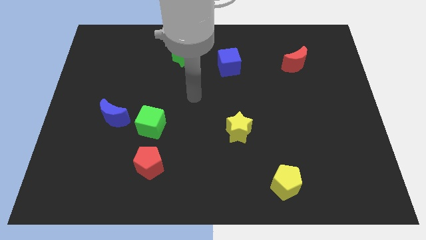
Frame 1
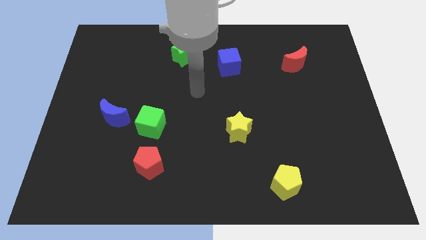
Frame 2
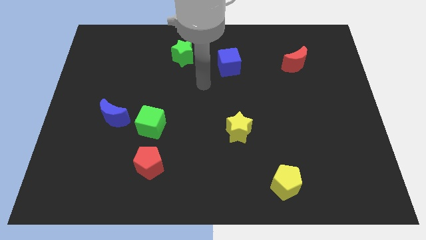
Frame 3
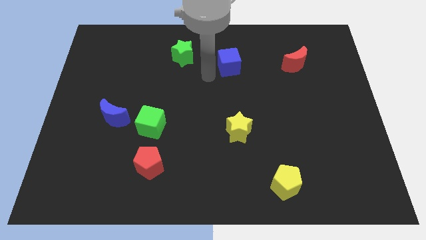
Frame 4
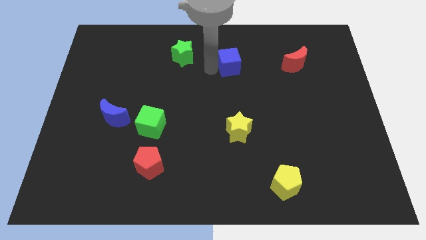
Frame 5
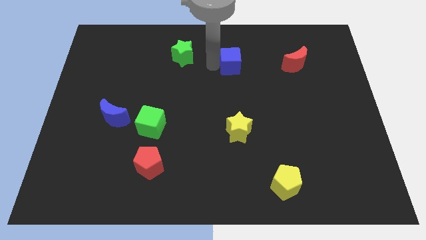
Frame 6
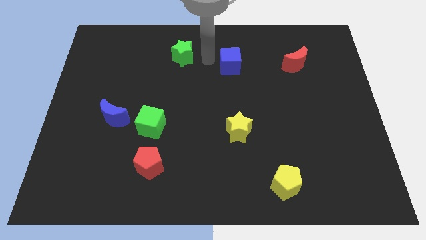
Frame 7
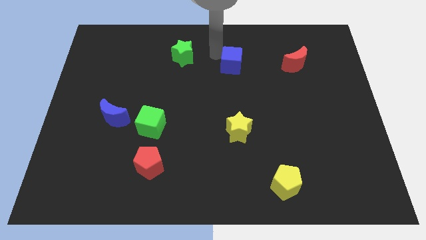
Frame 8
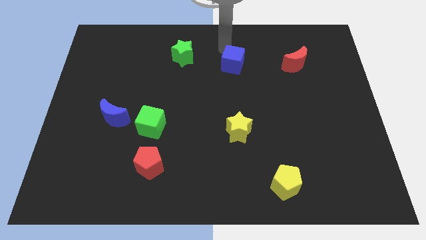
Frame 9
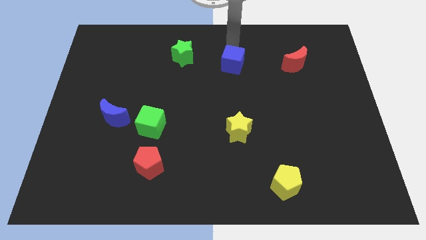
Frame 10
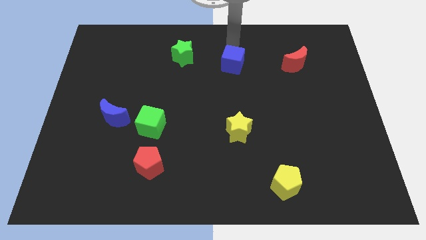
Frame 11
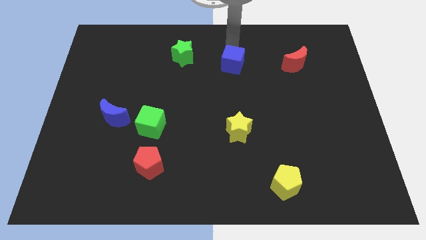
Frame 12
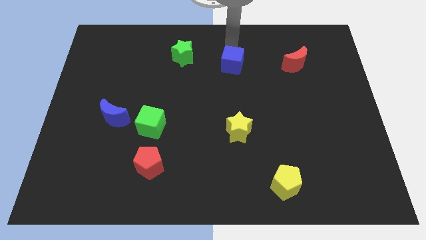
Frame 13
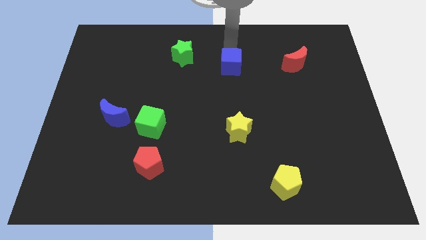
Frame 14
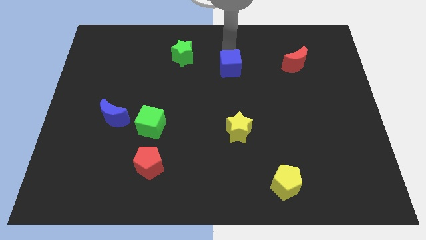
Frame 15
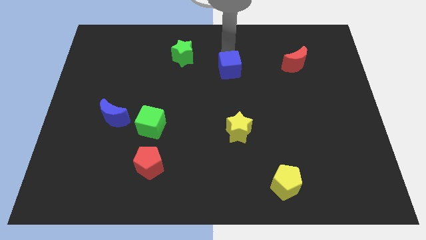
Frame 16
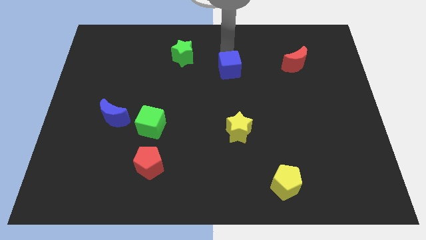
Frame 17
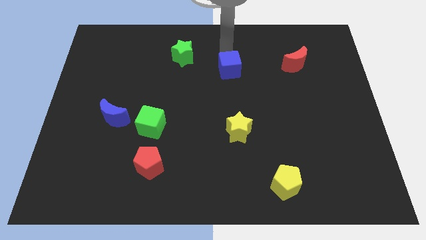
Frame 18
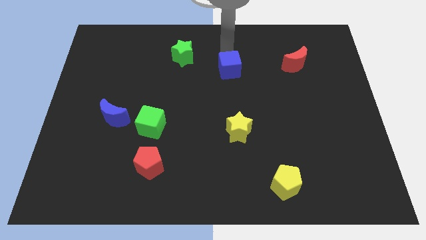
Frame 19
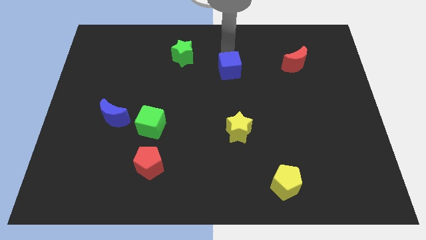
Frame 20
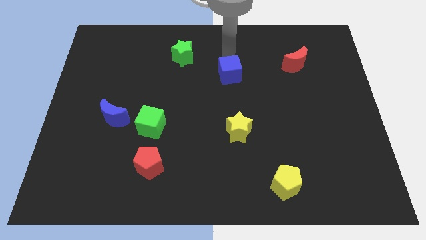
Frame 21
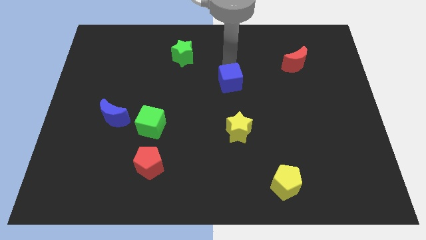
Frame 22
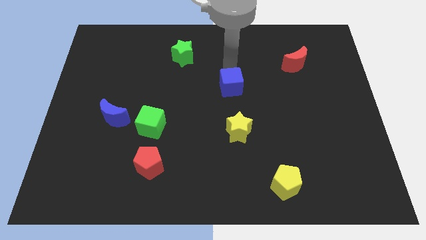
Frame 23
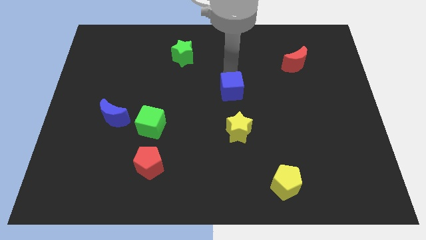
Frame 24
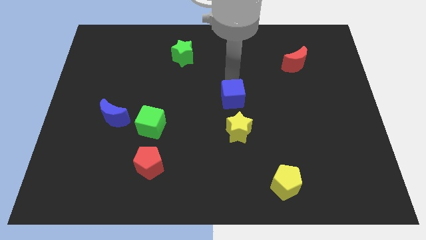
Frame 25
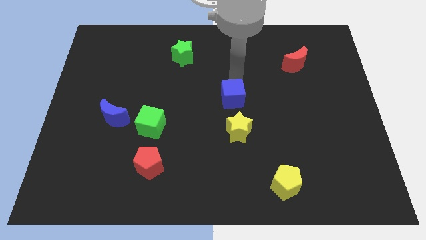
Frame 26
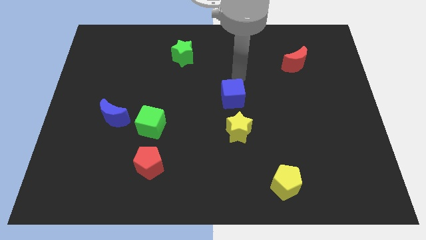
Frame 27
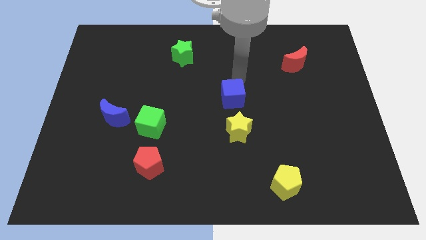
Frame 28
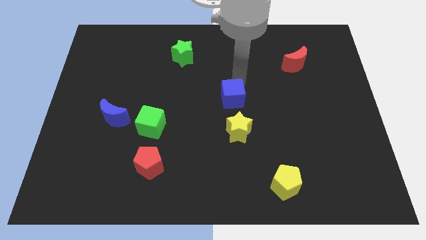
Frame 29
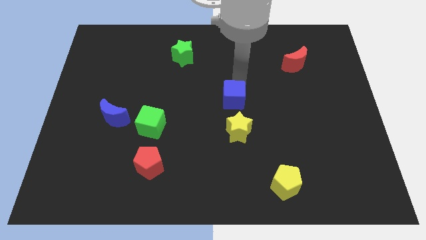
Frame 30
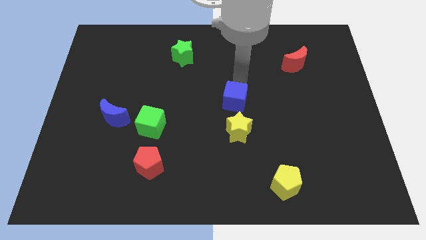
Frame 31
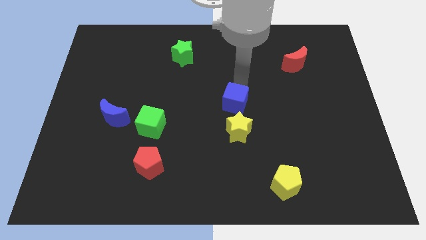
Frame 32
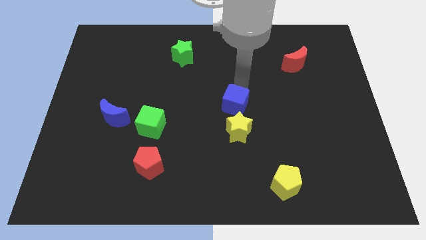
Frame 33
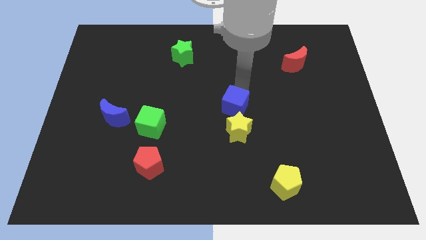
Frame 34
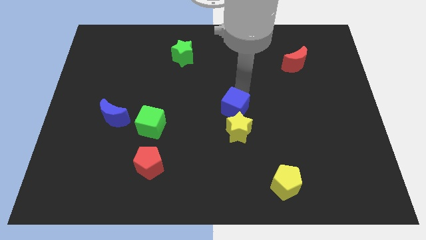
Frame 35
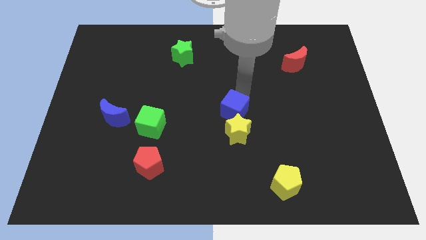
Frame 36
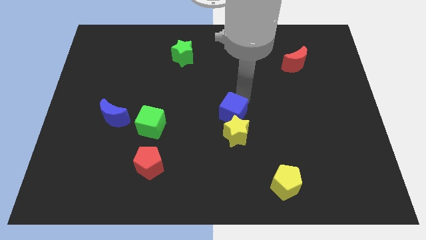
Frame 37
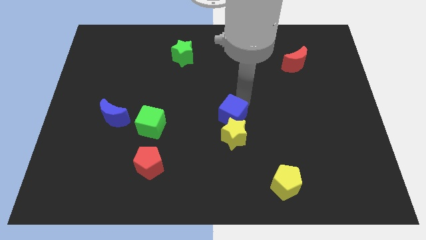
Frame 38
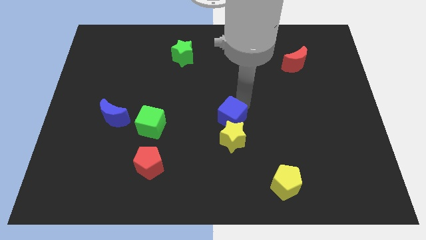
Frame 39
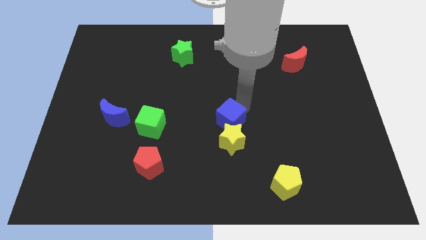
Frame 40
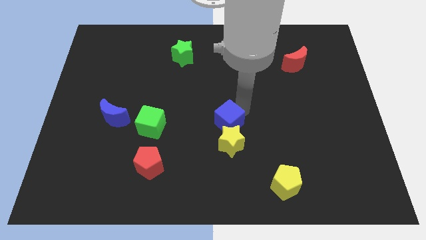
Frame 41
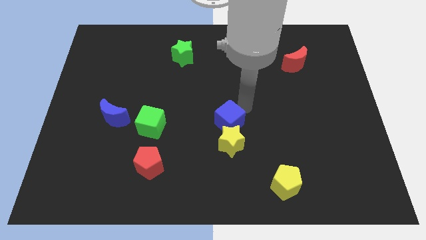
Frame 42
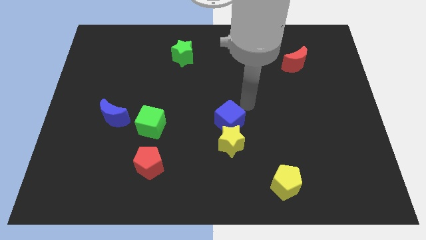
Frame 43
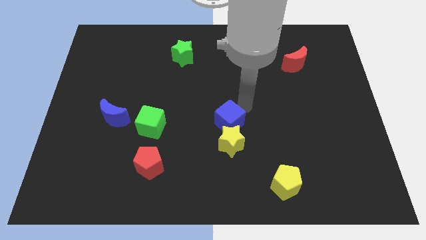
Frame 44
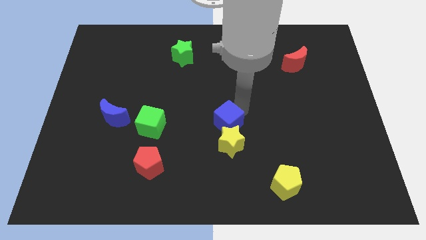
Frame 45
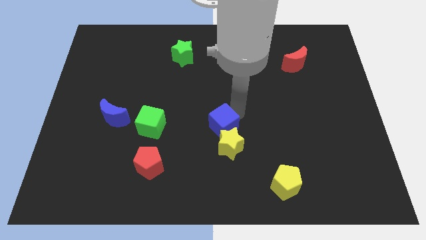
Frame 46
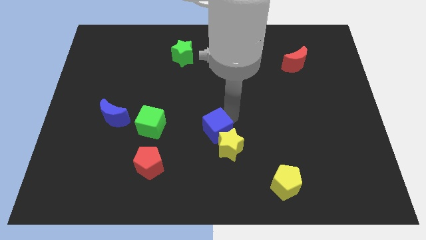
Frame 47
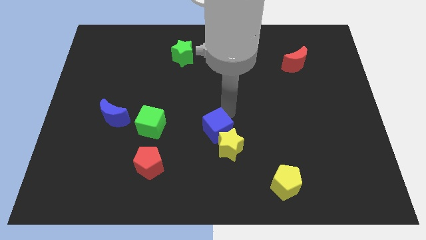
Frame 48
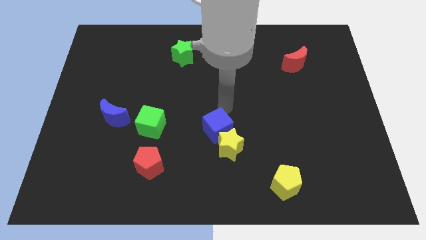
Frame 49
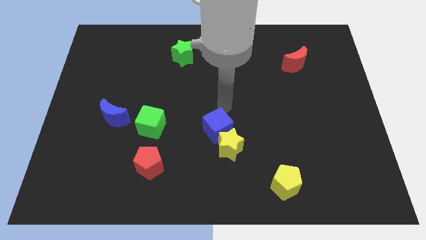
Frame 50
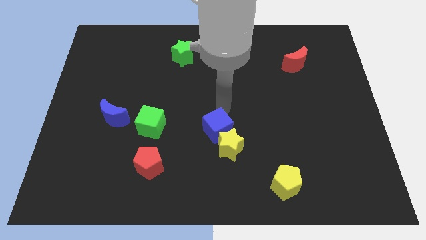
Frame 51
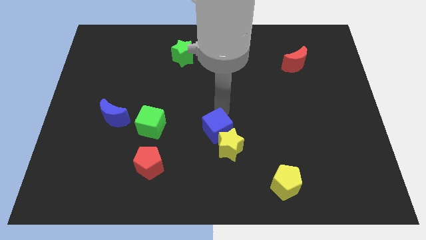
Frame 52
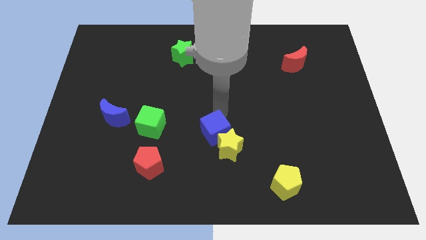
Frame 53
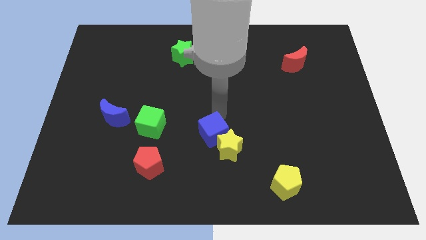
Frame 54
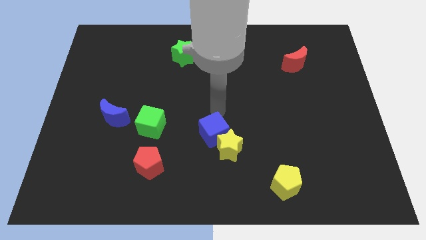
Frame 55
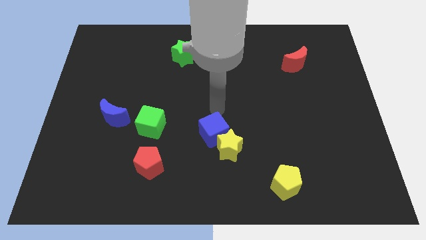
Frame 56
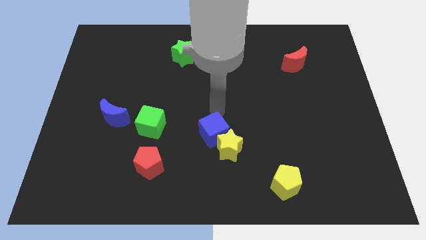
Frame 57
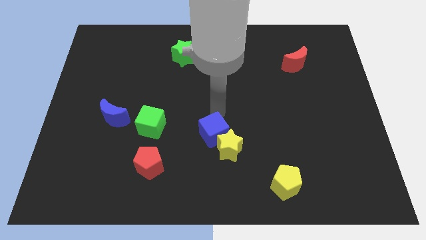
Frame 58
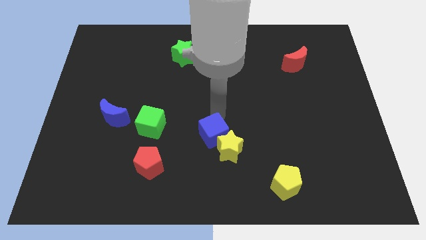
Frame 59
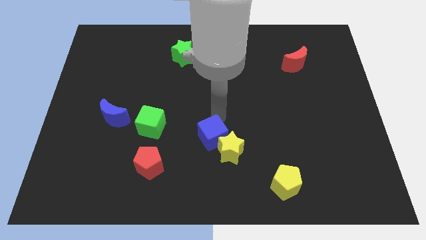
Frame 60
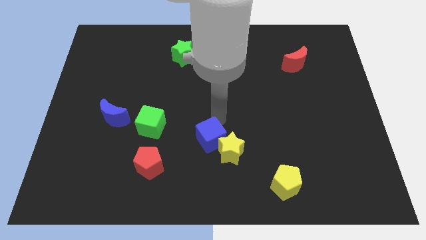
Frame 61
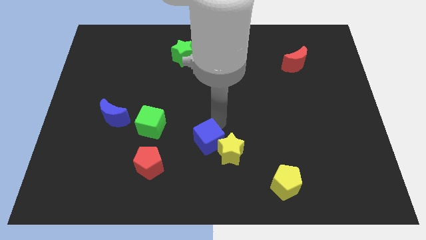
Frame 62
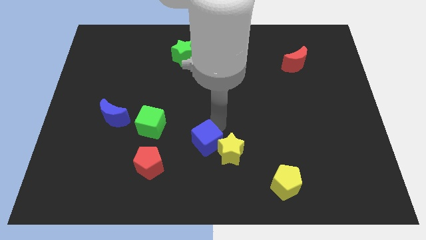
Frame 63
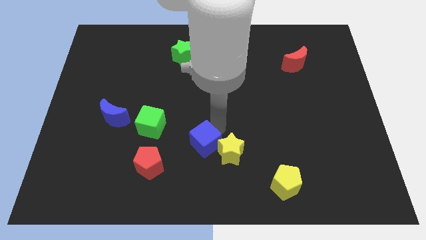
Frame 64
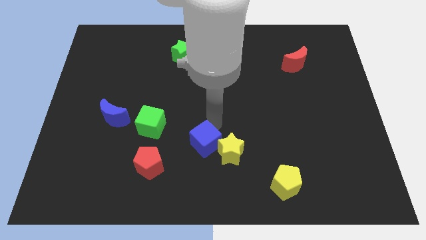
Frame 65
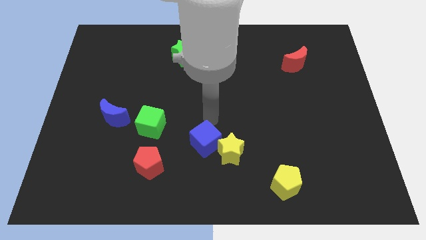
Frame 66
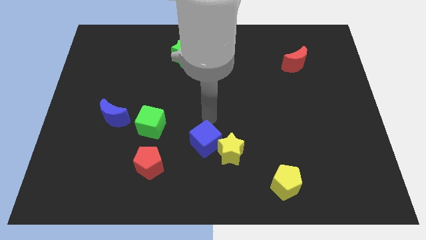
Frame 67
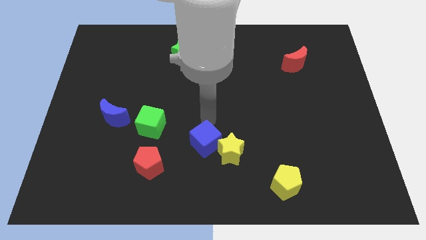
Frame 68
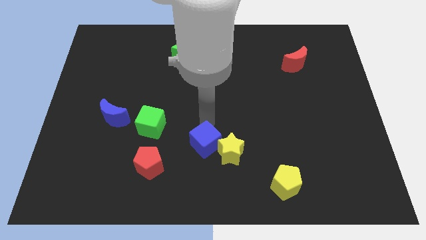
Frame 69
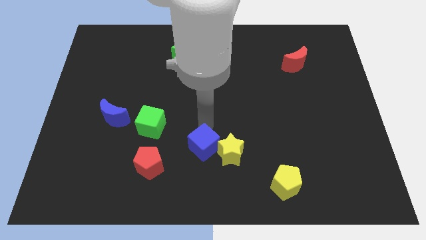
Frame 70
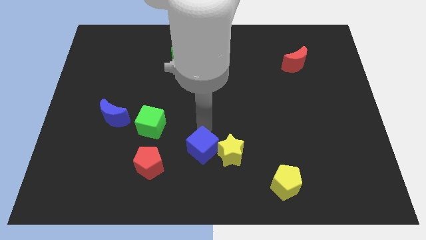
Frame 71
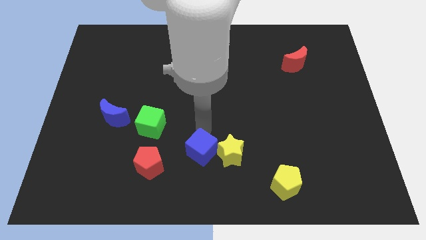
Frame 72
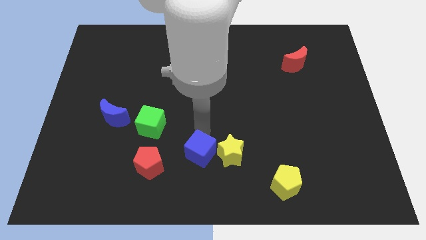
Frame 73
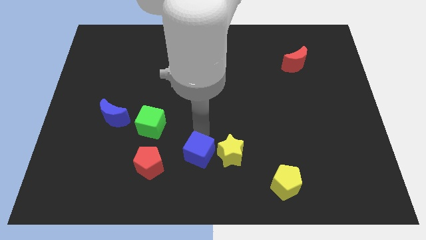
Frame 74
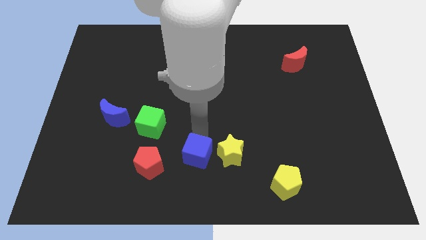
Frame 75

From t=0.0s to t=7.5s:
put the blue cube to the bottom side
